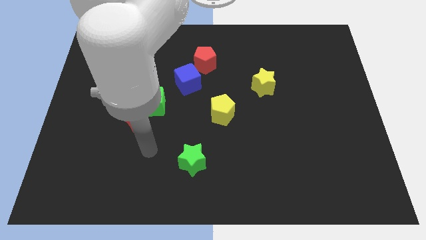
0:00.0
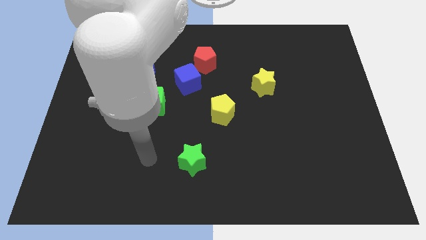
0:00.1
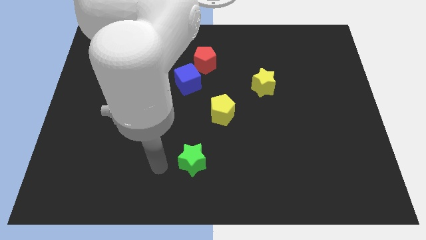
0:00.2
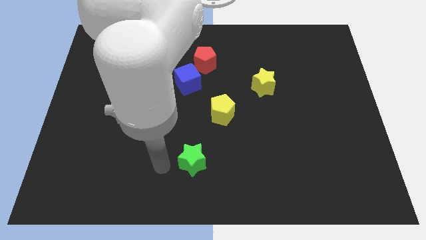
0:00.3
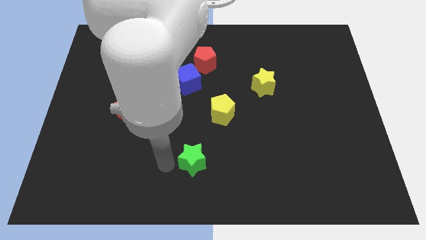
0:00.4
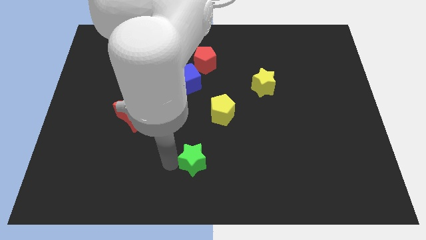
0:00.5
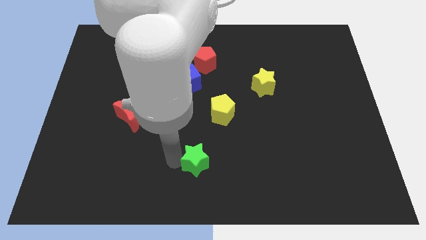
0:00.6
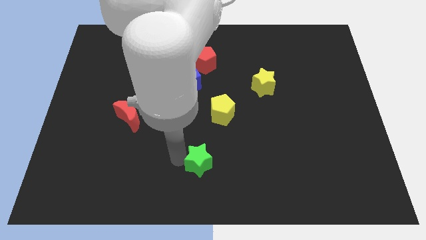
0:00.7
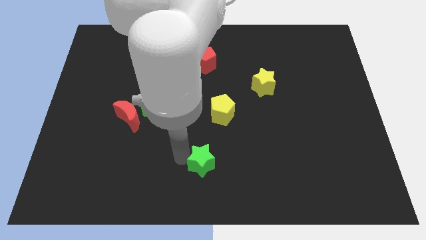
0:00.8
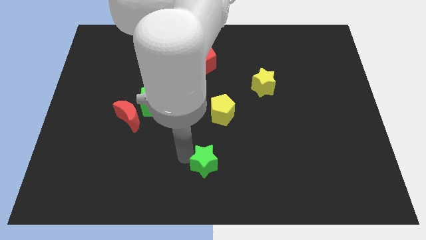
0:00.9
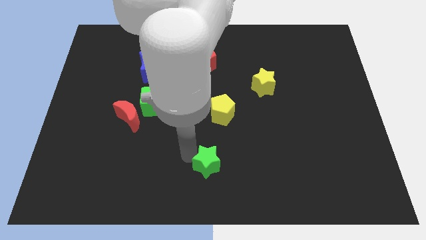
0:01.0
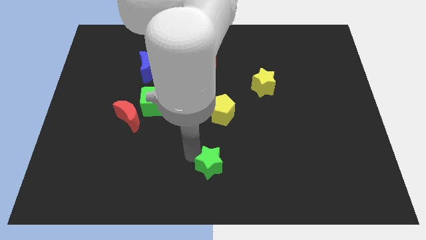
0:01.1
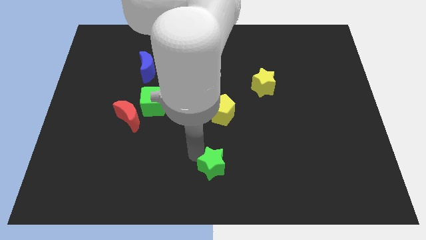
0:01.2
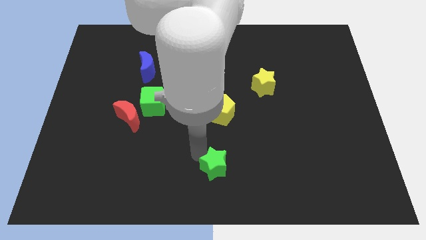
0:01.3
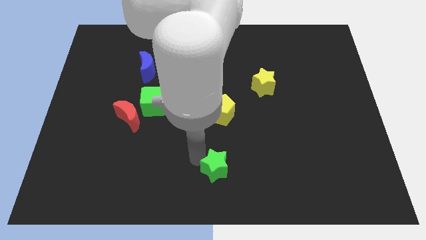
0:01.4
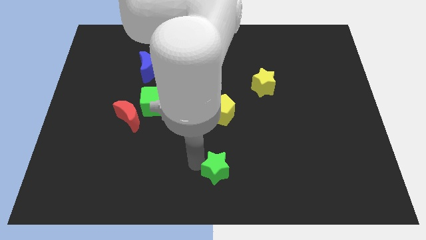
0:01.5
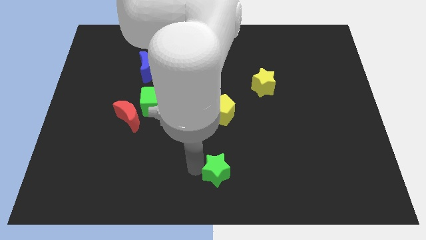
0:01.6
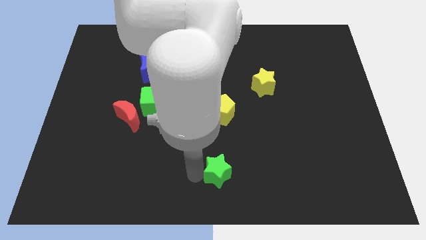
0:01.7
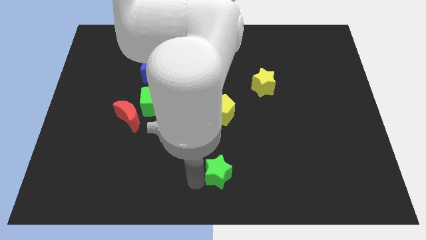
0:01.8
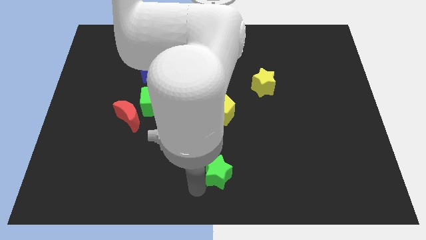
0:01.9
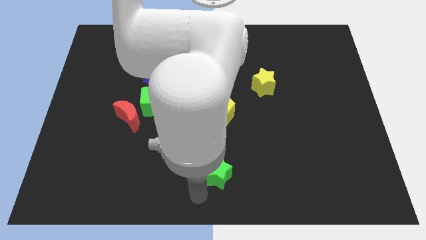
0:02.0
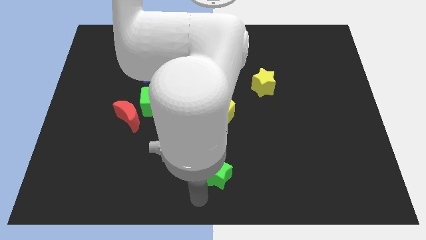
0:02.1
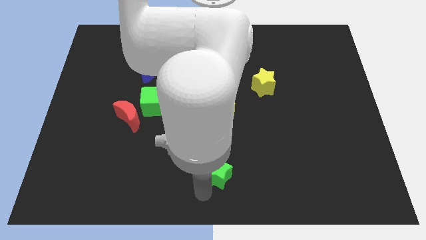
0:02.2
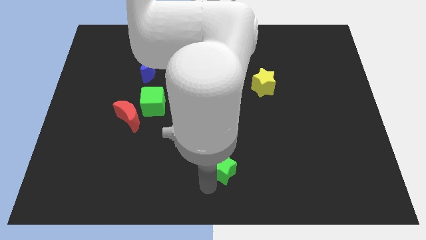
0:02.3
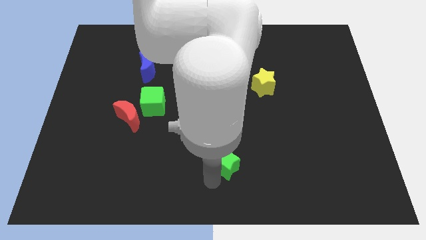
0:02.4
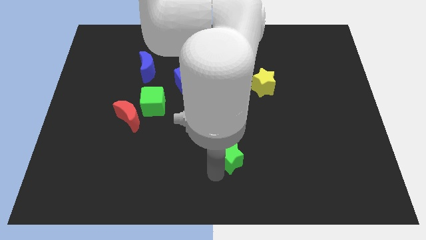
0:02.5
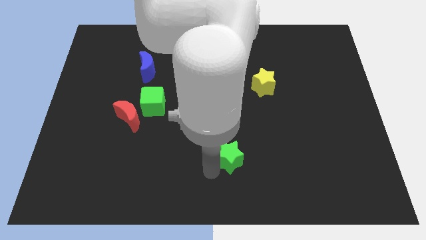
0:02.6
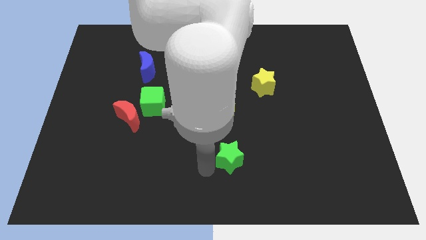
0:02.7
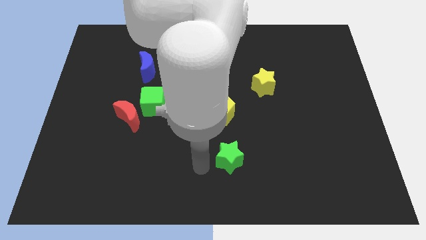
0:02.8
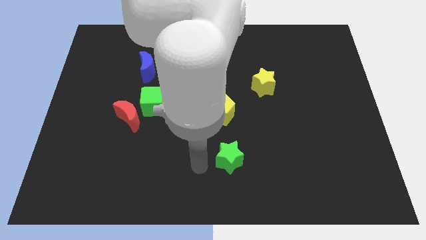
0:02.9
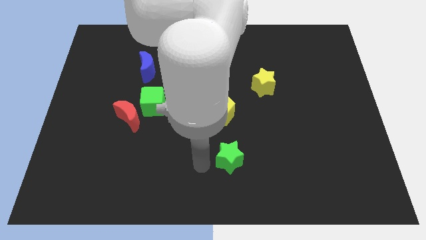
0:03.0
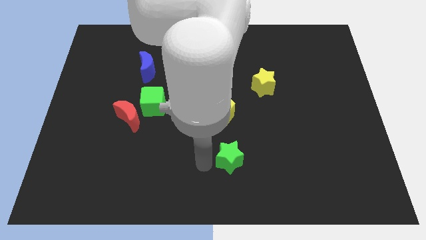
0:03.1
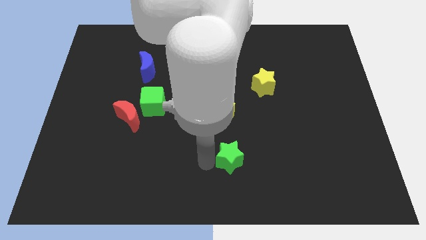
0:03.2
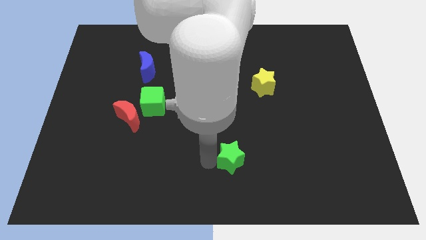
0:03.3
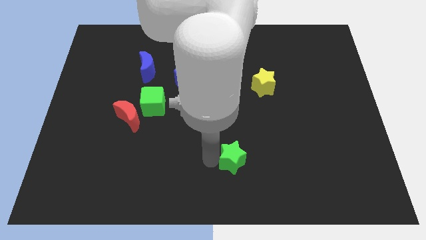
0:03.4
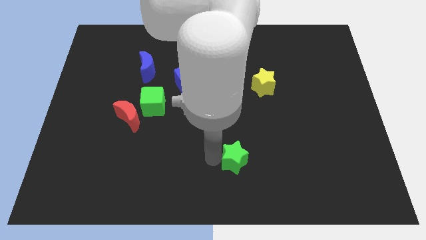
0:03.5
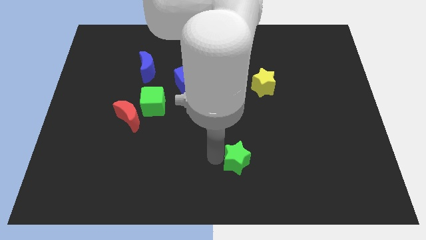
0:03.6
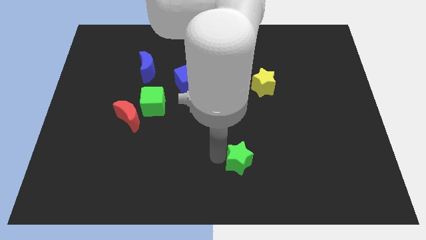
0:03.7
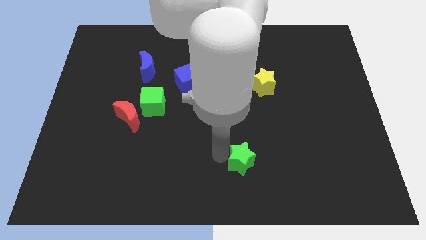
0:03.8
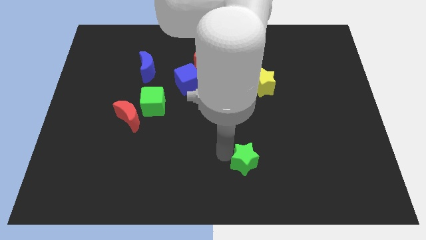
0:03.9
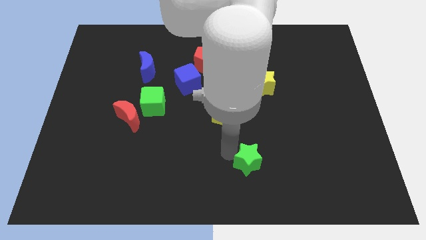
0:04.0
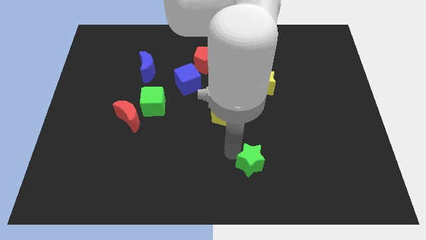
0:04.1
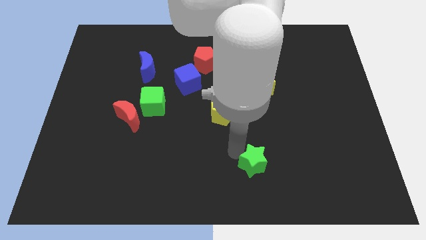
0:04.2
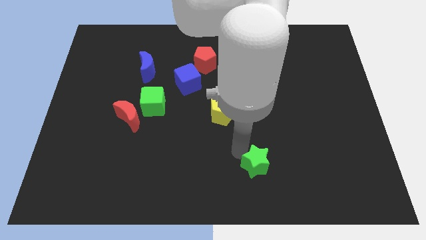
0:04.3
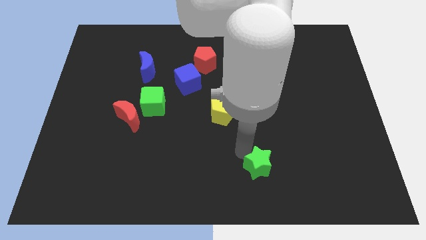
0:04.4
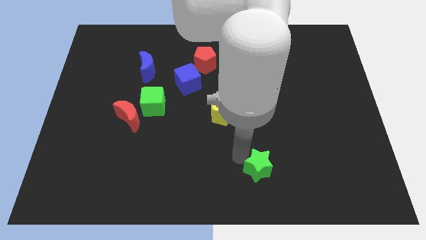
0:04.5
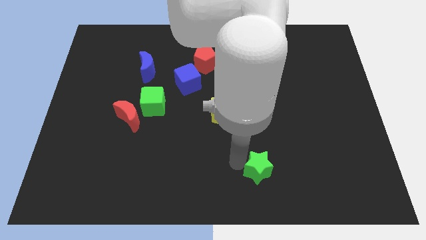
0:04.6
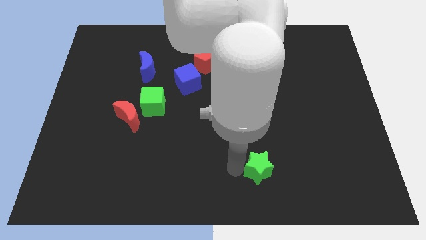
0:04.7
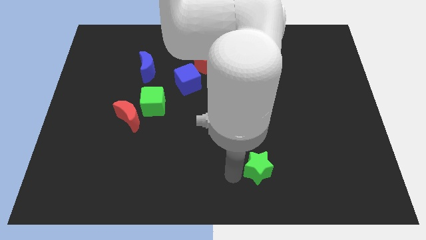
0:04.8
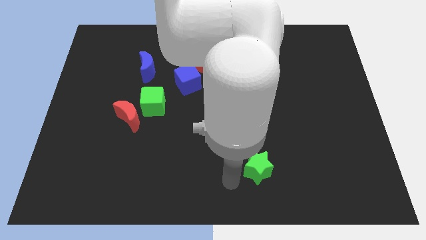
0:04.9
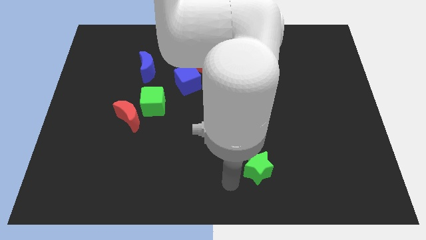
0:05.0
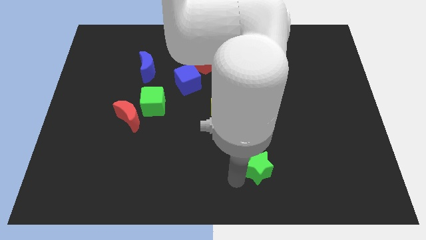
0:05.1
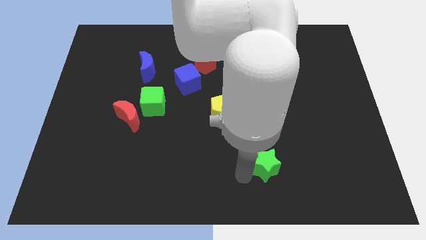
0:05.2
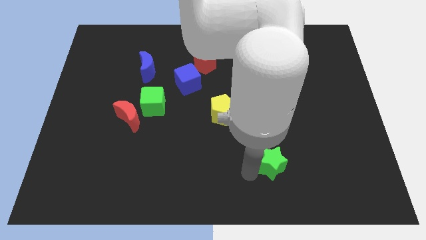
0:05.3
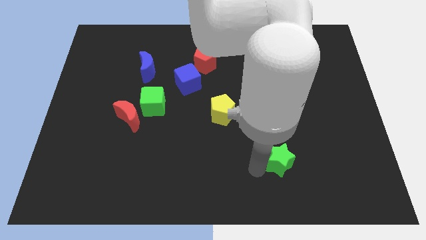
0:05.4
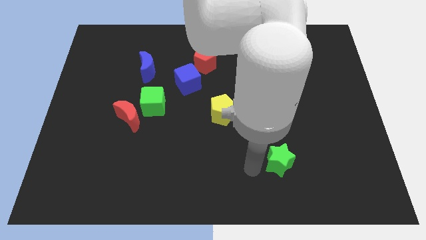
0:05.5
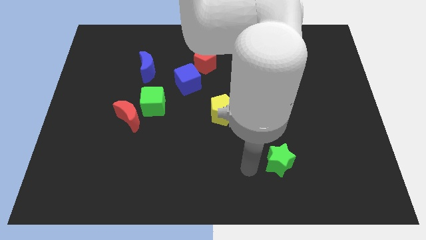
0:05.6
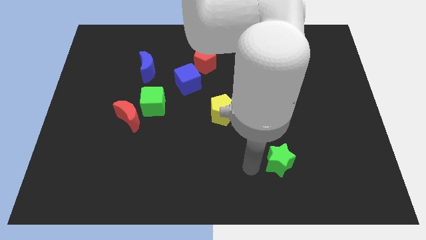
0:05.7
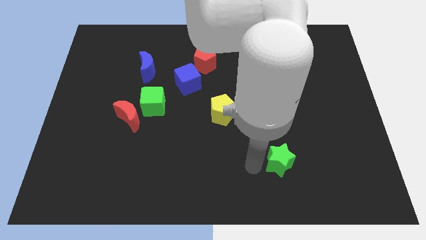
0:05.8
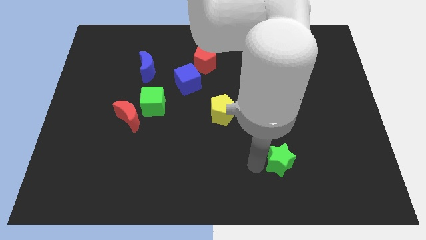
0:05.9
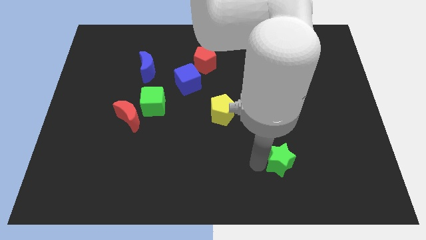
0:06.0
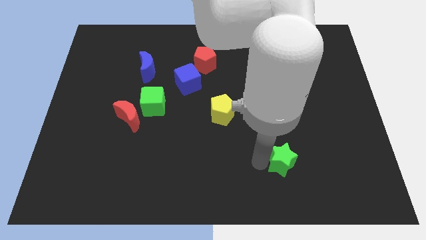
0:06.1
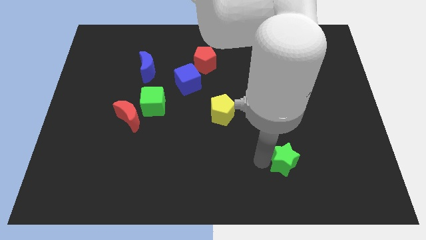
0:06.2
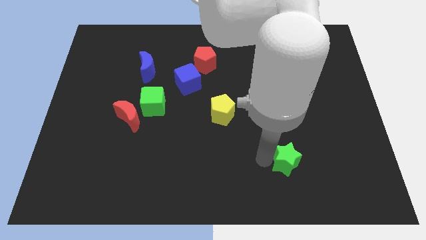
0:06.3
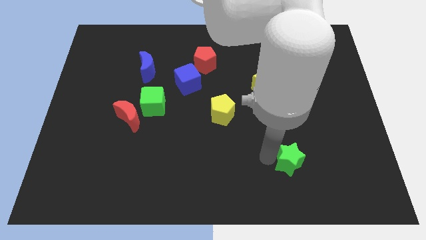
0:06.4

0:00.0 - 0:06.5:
push the green star right

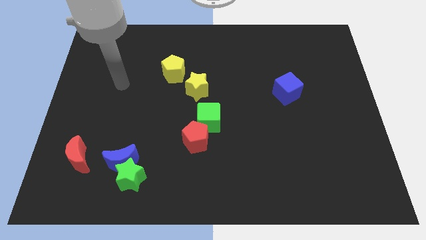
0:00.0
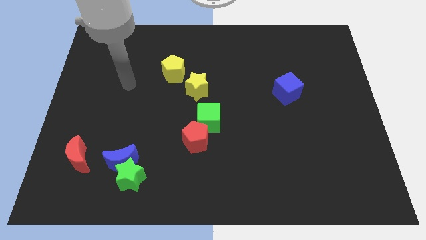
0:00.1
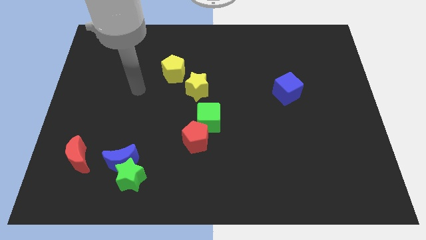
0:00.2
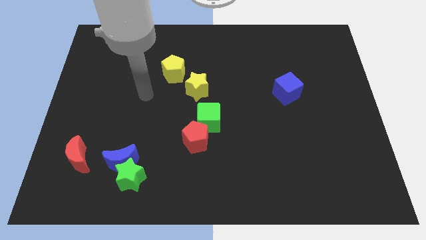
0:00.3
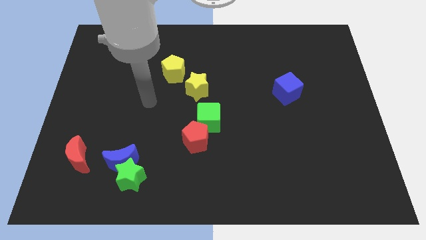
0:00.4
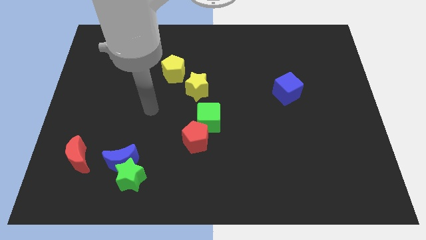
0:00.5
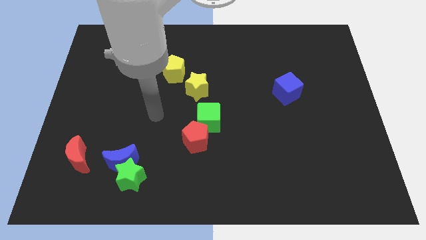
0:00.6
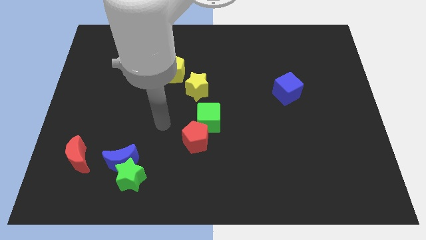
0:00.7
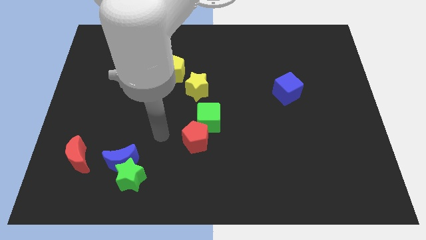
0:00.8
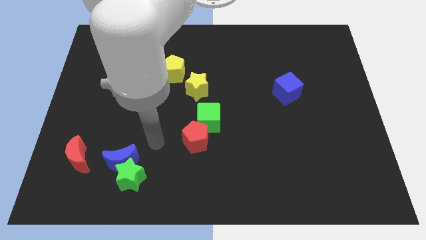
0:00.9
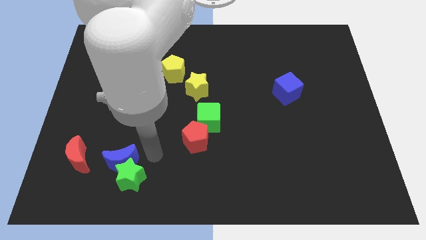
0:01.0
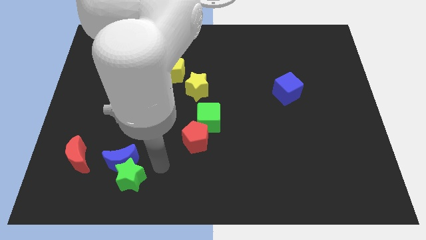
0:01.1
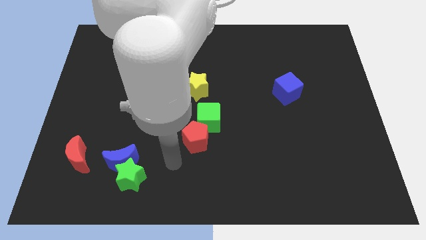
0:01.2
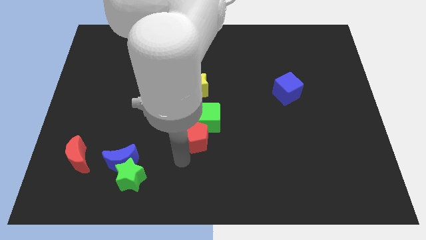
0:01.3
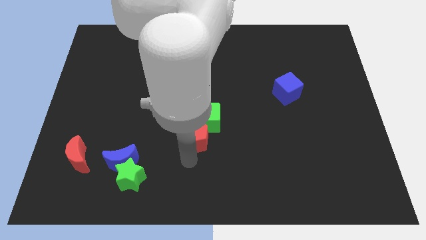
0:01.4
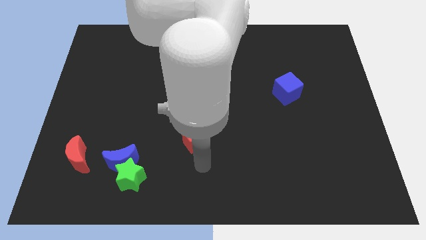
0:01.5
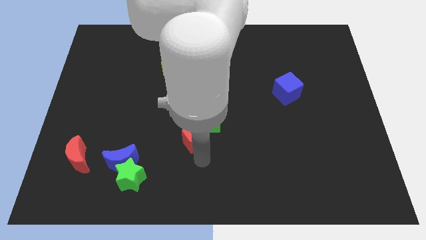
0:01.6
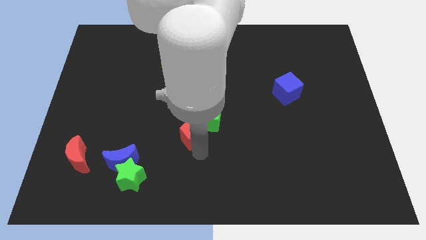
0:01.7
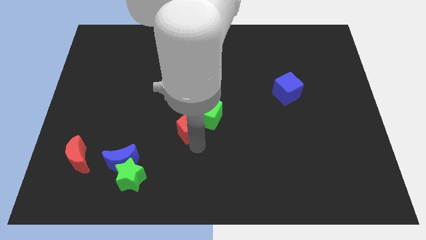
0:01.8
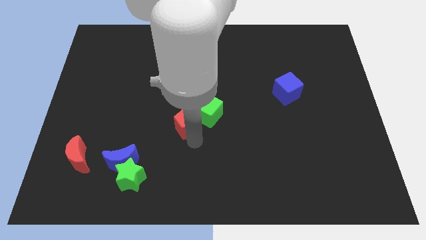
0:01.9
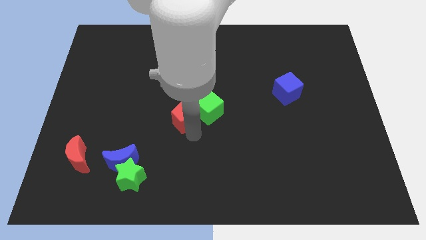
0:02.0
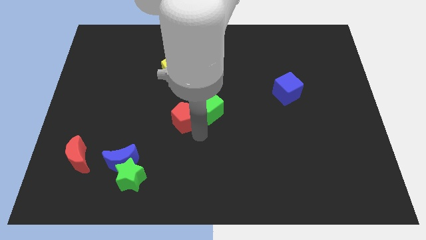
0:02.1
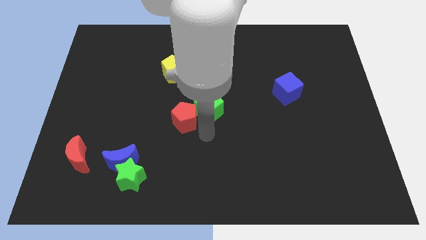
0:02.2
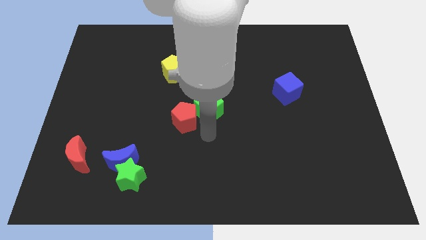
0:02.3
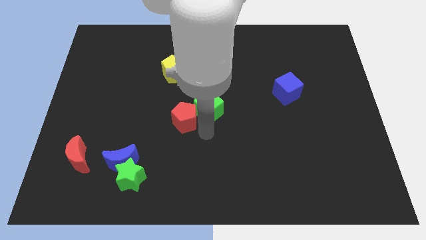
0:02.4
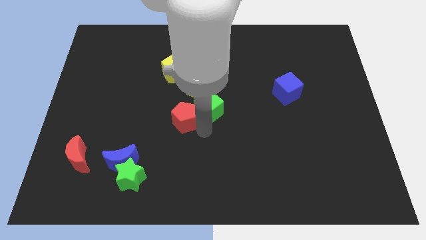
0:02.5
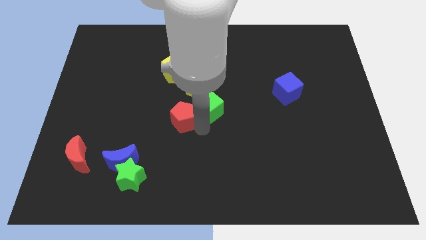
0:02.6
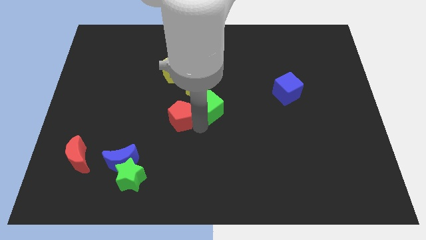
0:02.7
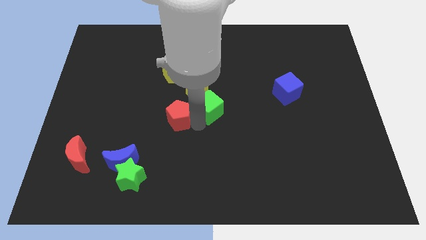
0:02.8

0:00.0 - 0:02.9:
push the red pentagon up and left diagonally somewhat
